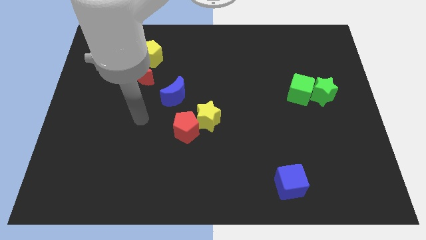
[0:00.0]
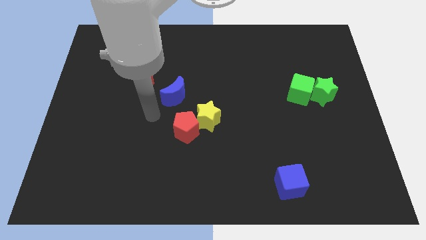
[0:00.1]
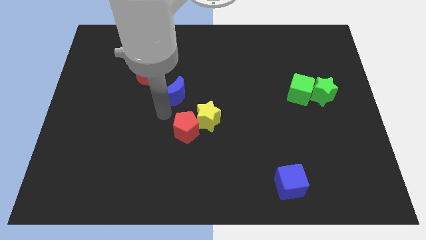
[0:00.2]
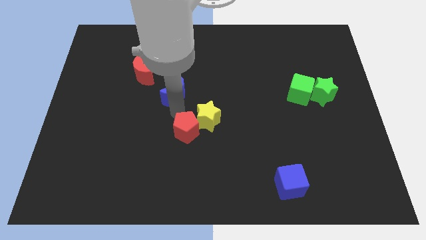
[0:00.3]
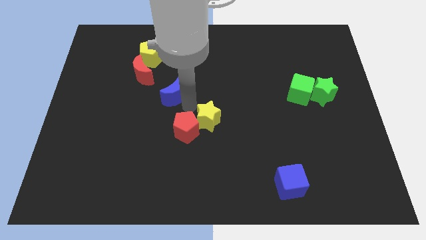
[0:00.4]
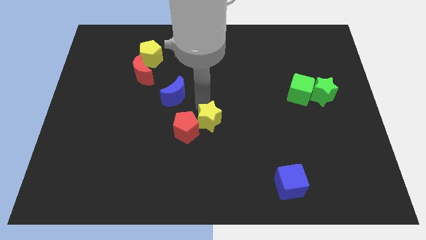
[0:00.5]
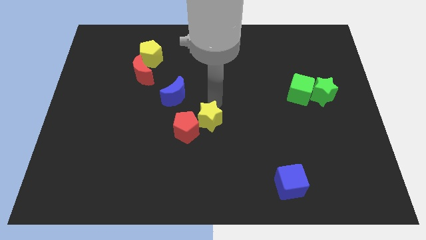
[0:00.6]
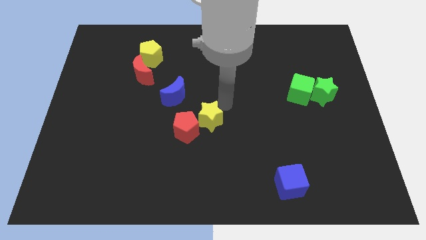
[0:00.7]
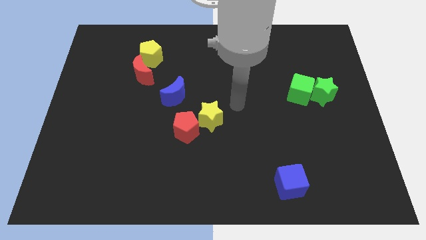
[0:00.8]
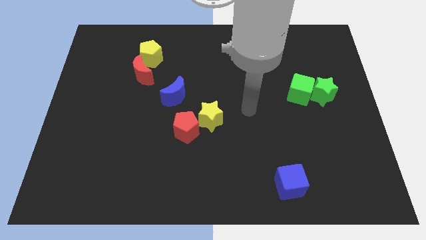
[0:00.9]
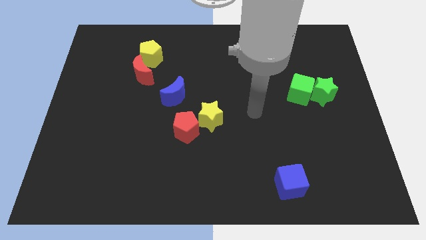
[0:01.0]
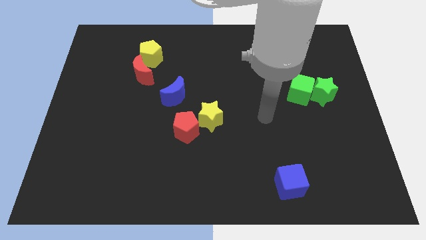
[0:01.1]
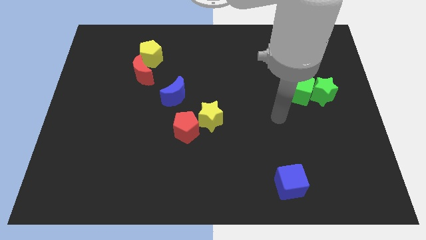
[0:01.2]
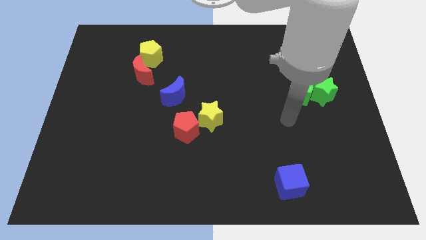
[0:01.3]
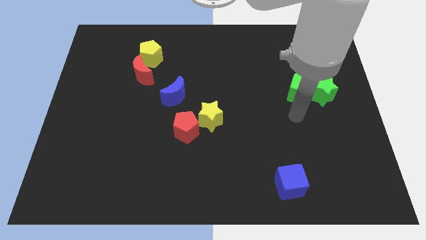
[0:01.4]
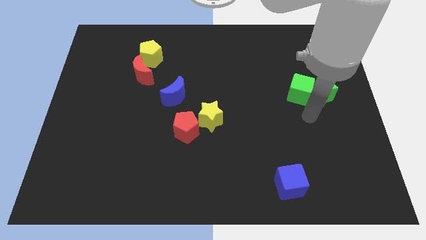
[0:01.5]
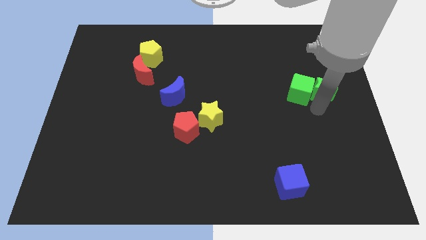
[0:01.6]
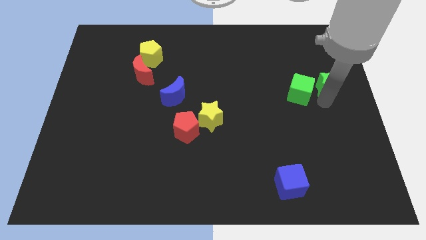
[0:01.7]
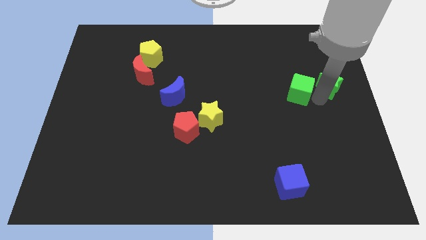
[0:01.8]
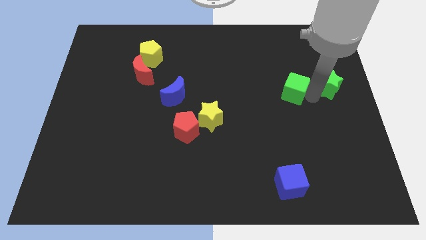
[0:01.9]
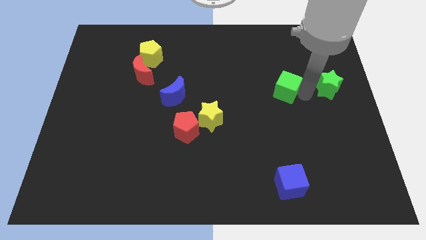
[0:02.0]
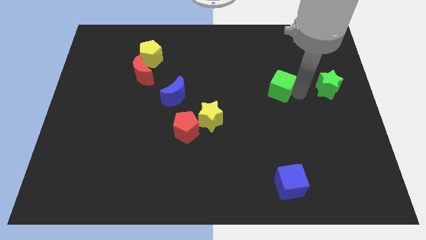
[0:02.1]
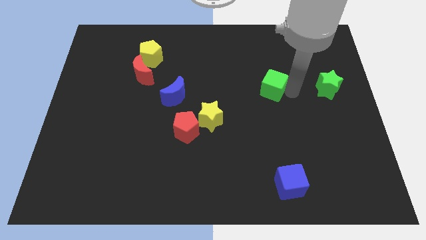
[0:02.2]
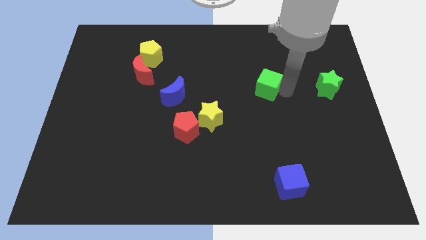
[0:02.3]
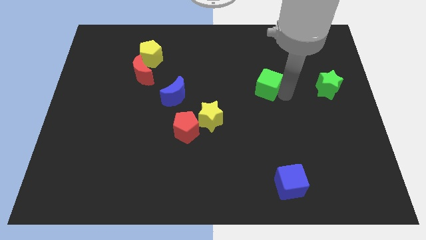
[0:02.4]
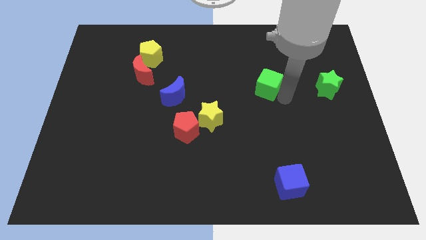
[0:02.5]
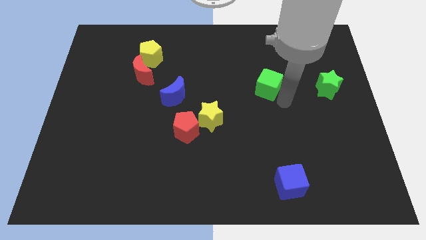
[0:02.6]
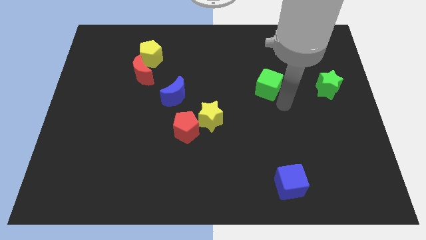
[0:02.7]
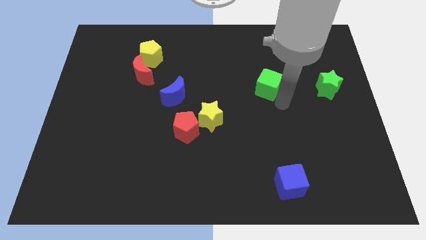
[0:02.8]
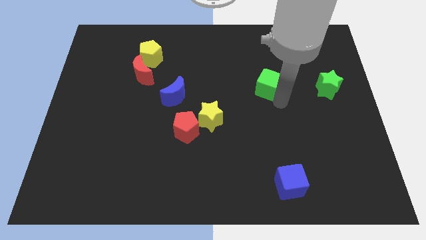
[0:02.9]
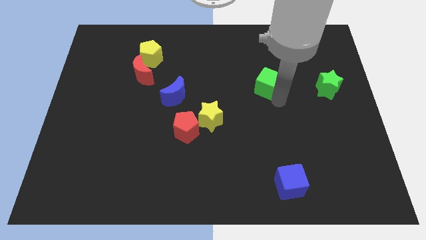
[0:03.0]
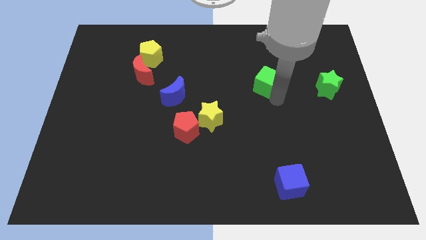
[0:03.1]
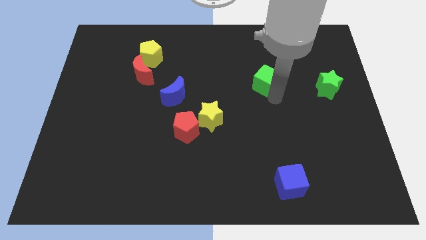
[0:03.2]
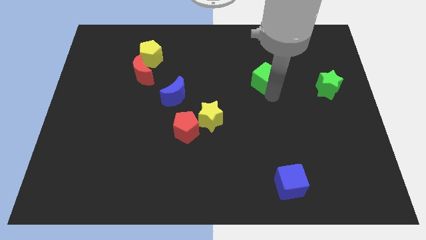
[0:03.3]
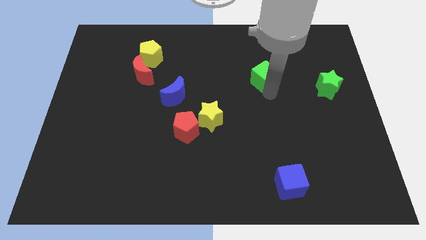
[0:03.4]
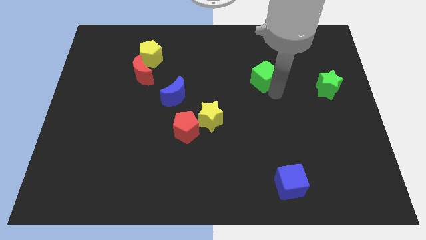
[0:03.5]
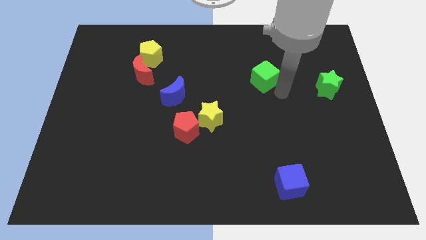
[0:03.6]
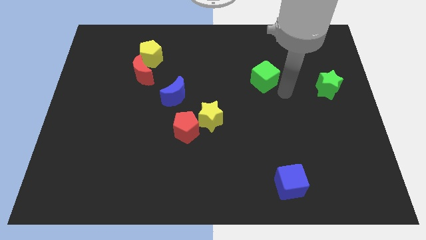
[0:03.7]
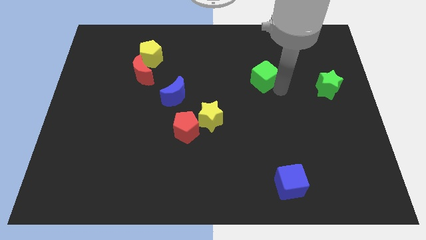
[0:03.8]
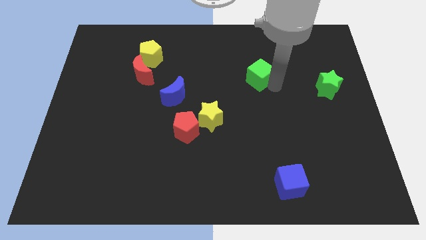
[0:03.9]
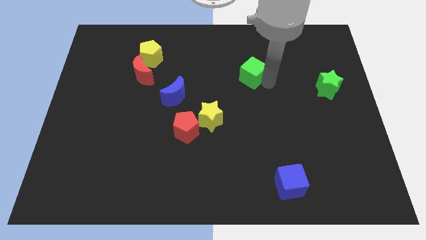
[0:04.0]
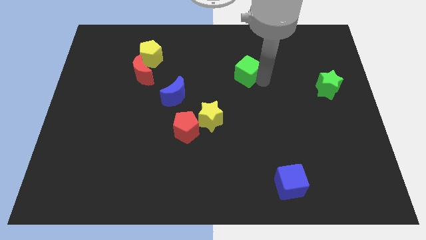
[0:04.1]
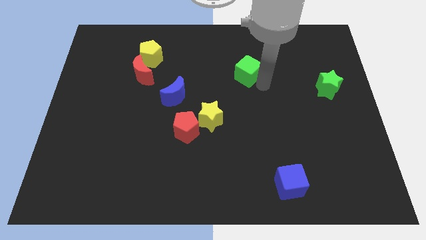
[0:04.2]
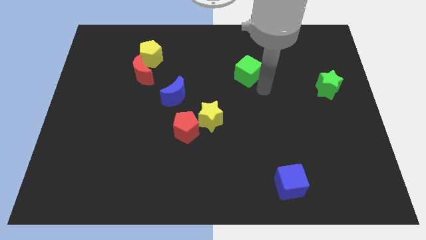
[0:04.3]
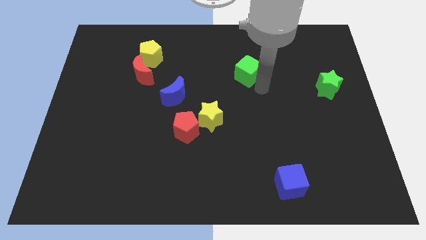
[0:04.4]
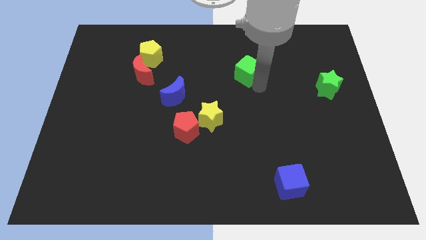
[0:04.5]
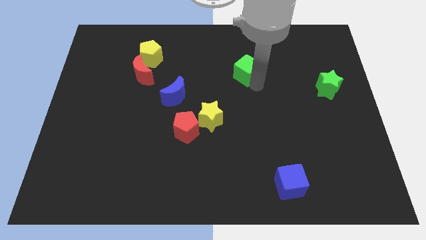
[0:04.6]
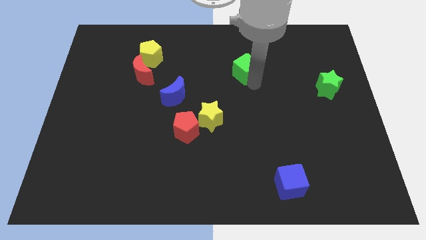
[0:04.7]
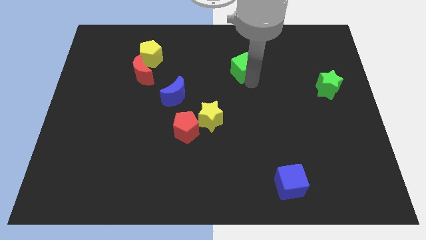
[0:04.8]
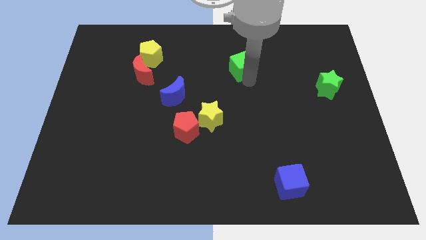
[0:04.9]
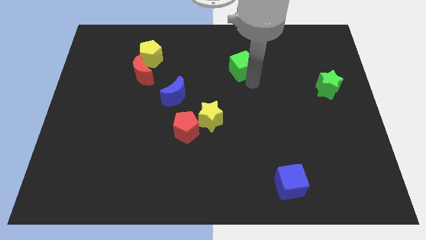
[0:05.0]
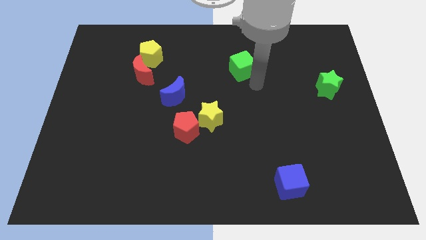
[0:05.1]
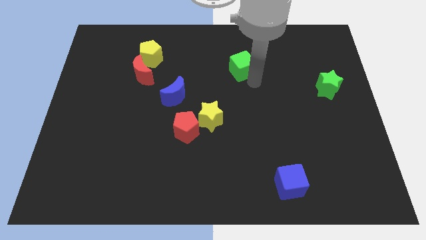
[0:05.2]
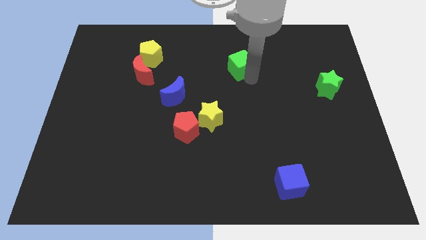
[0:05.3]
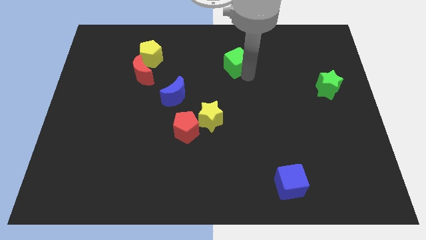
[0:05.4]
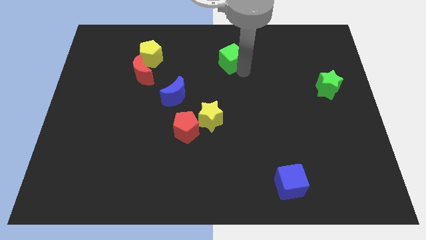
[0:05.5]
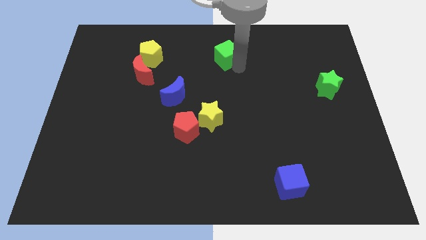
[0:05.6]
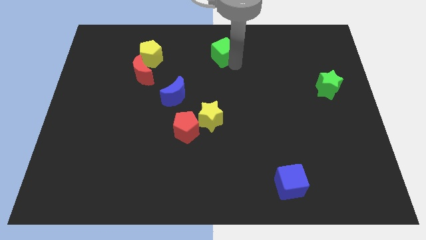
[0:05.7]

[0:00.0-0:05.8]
push the green cube to the towards your base

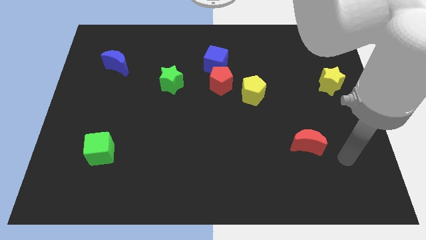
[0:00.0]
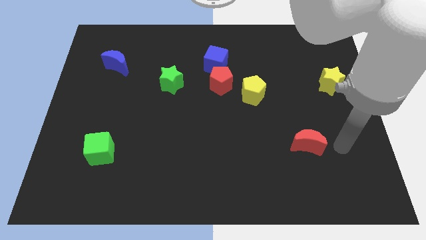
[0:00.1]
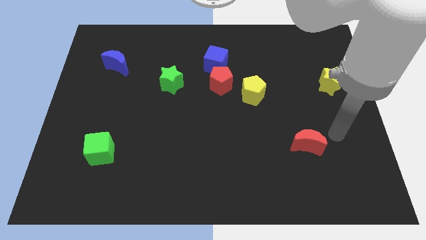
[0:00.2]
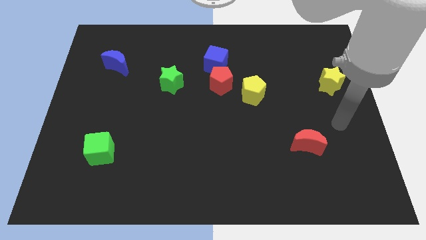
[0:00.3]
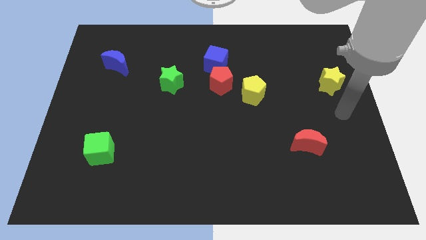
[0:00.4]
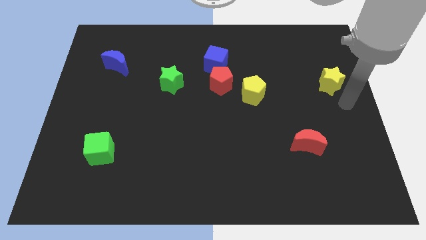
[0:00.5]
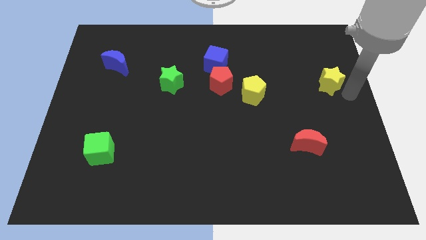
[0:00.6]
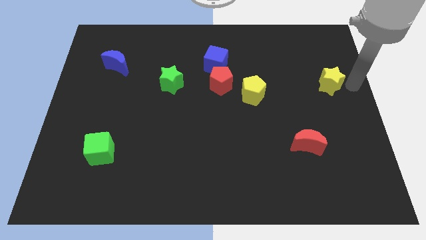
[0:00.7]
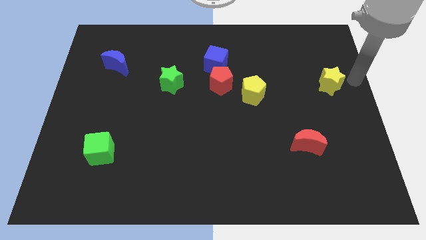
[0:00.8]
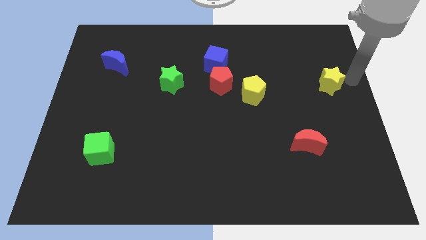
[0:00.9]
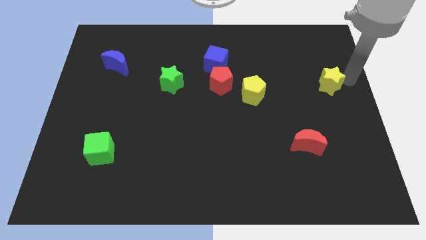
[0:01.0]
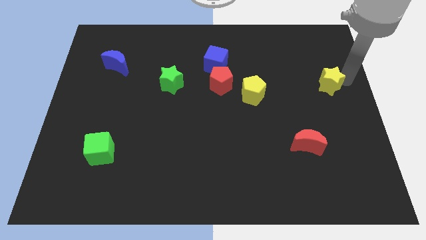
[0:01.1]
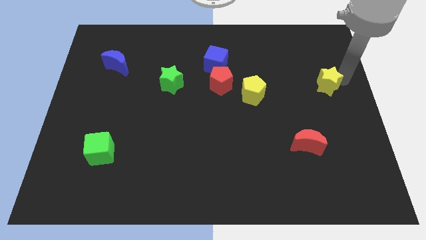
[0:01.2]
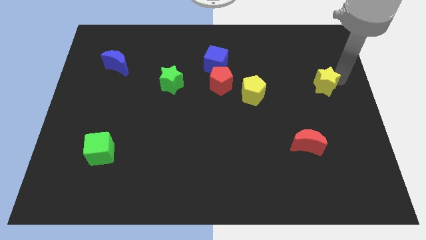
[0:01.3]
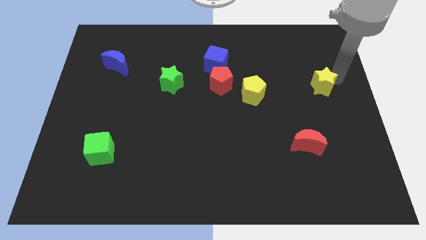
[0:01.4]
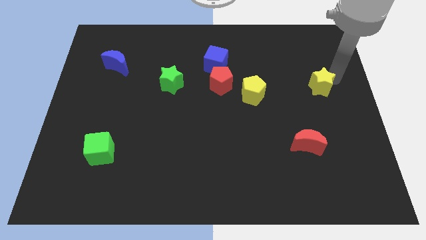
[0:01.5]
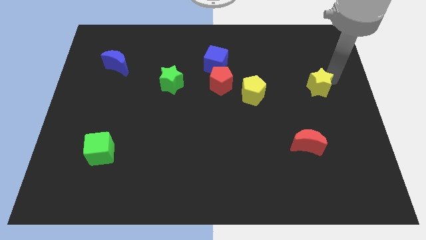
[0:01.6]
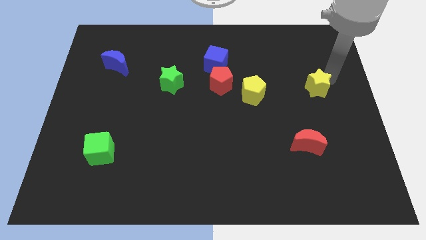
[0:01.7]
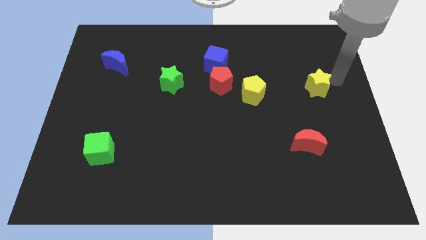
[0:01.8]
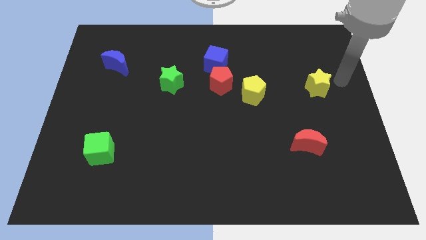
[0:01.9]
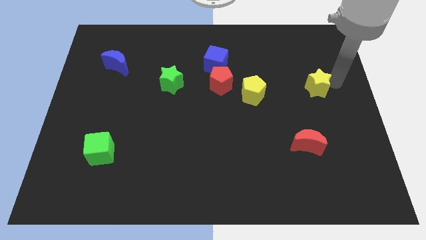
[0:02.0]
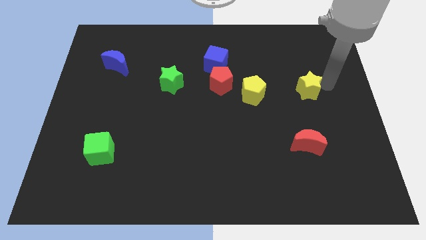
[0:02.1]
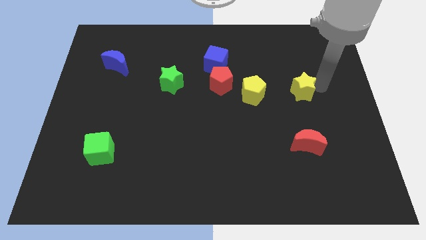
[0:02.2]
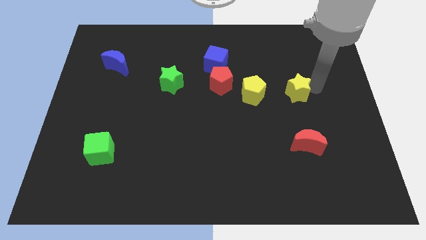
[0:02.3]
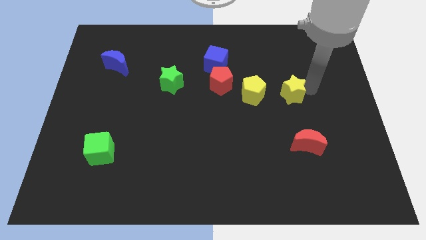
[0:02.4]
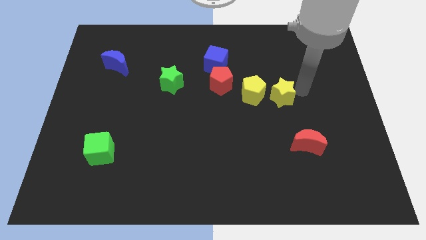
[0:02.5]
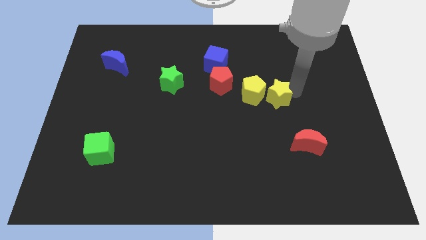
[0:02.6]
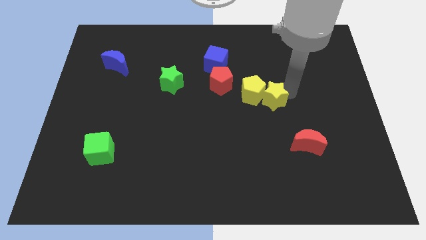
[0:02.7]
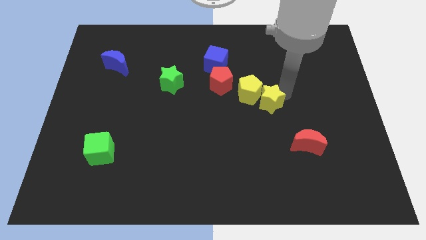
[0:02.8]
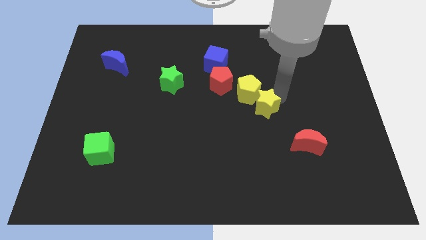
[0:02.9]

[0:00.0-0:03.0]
push the yellow star to the middle
